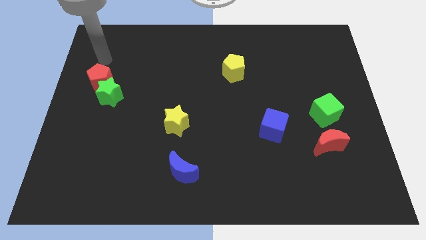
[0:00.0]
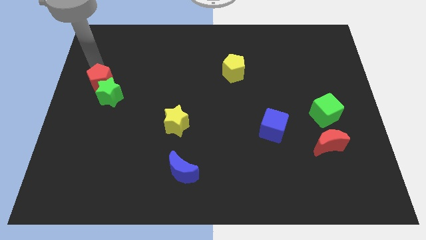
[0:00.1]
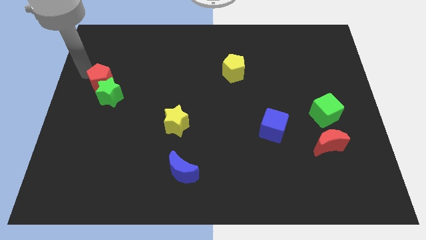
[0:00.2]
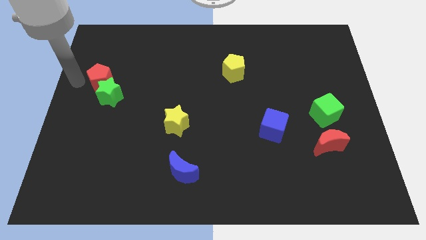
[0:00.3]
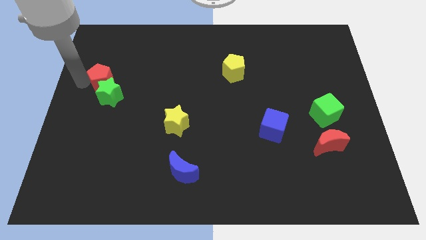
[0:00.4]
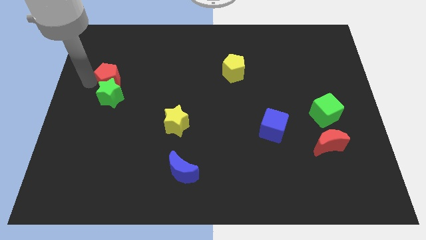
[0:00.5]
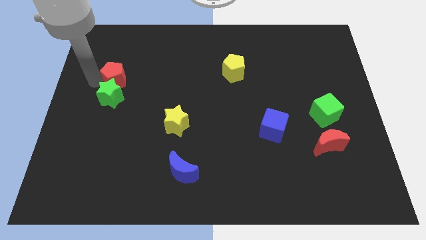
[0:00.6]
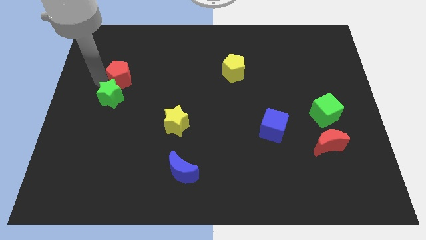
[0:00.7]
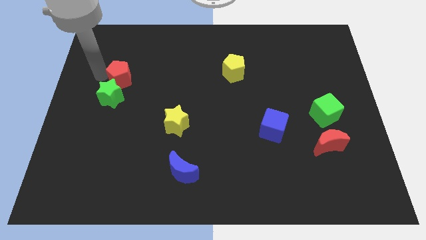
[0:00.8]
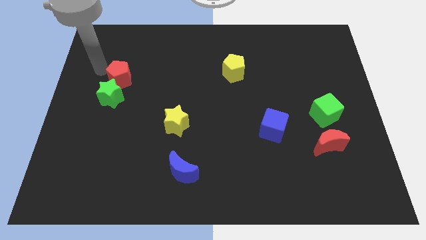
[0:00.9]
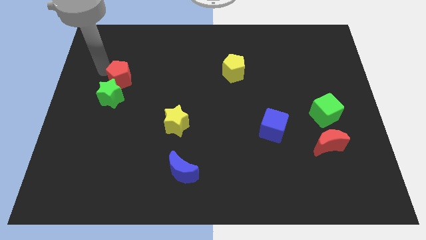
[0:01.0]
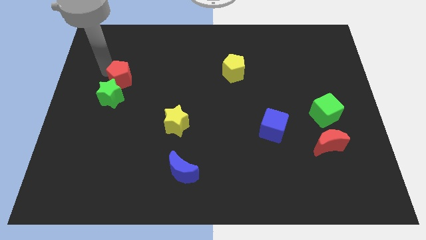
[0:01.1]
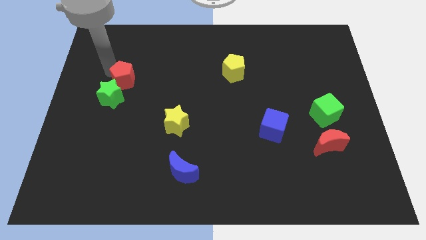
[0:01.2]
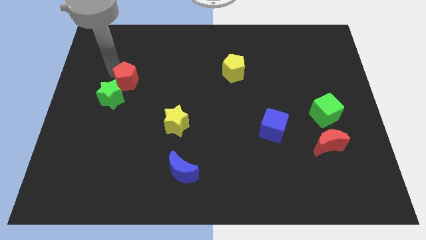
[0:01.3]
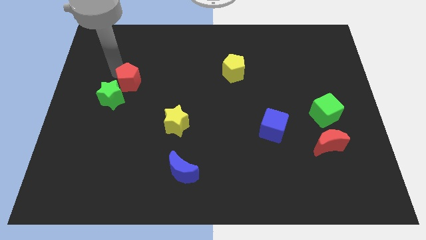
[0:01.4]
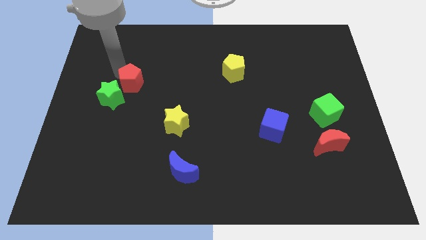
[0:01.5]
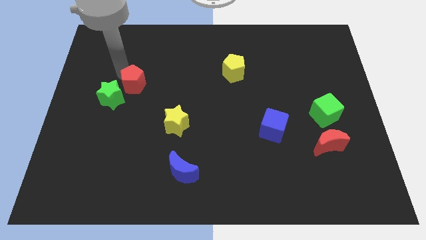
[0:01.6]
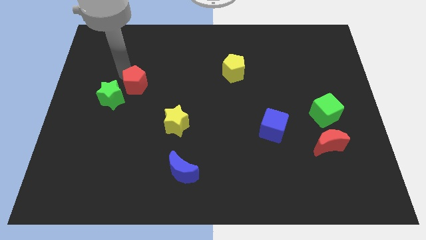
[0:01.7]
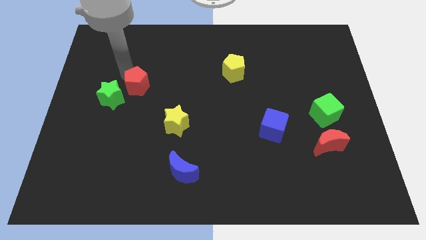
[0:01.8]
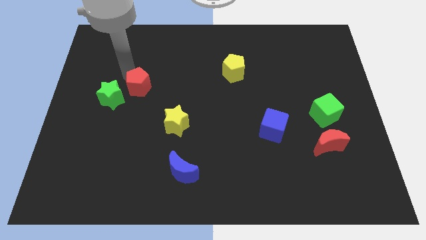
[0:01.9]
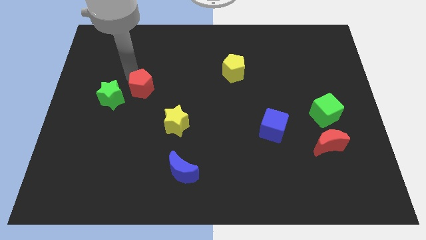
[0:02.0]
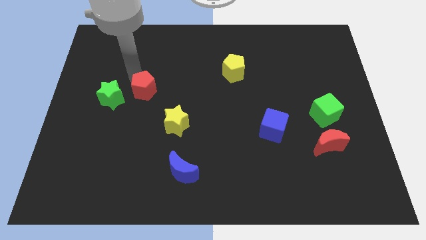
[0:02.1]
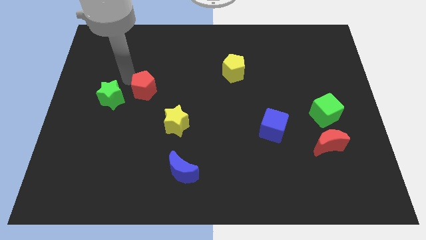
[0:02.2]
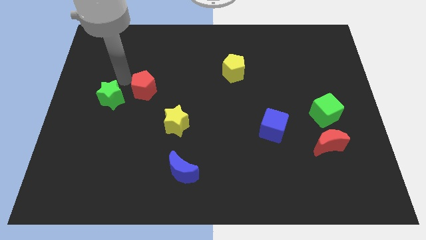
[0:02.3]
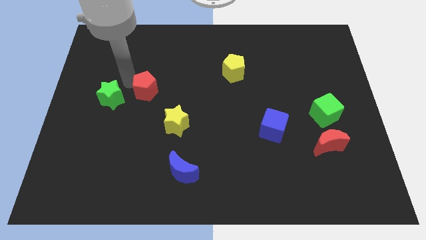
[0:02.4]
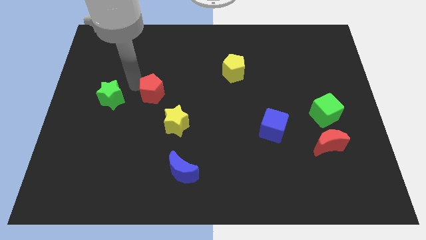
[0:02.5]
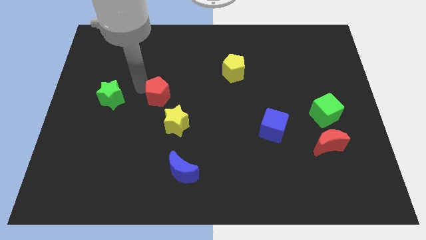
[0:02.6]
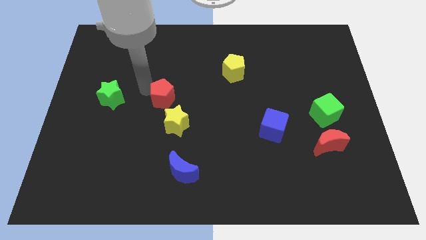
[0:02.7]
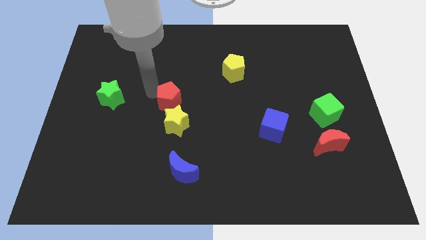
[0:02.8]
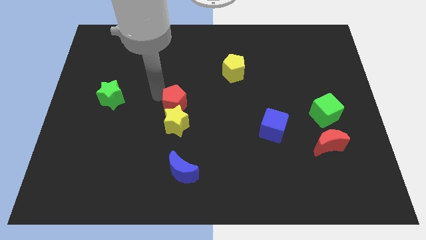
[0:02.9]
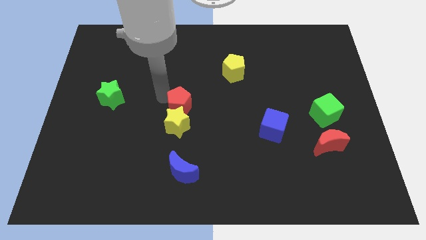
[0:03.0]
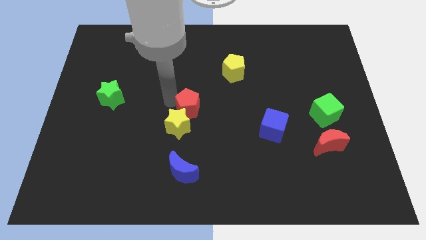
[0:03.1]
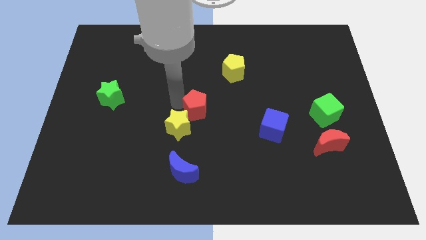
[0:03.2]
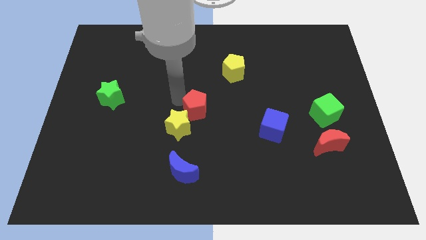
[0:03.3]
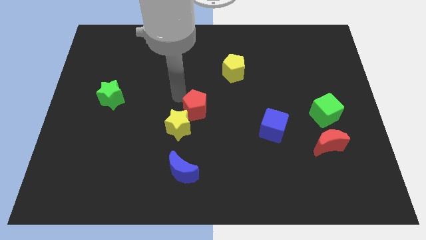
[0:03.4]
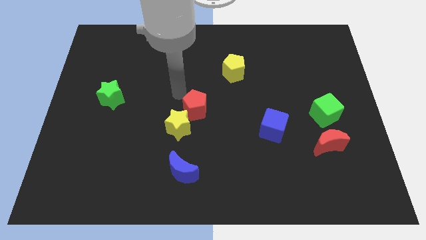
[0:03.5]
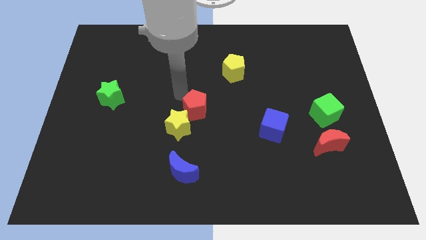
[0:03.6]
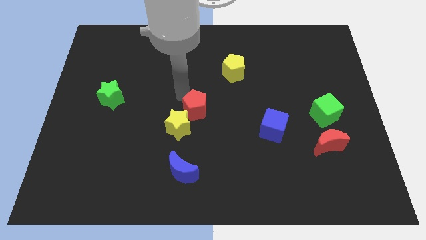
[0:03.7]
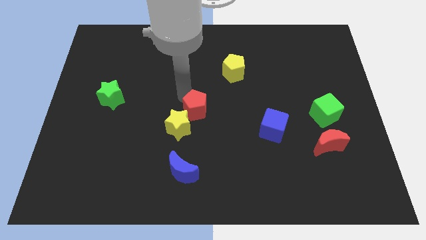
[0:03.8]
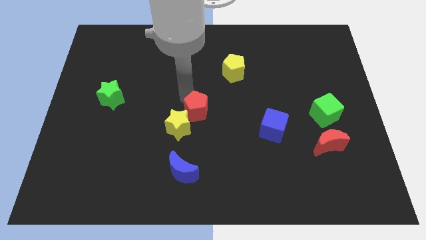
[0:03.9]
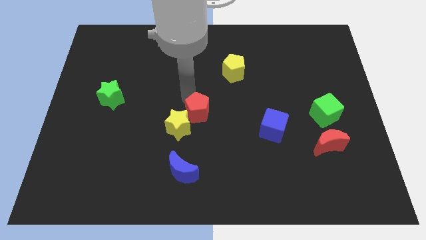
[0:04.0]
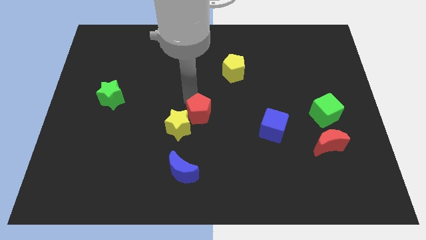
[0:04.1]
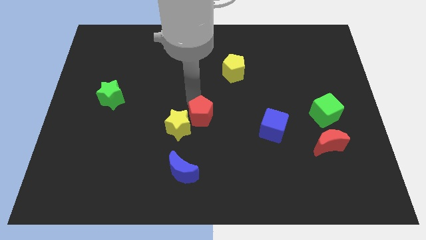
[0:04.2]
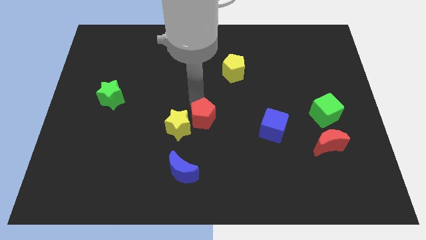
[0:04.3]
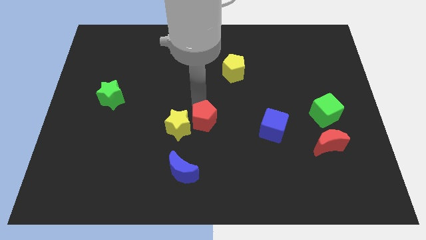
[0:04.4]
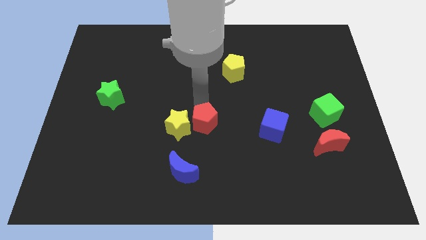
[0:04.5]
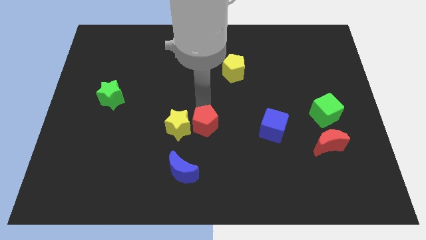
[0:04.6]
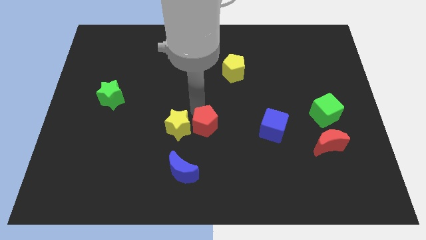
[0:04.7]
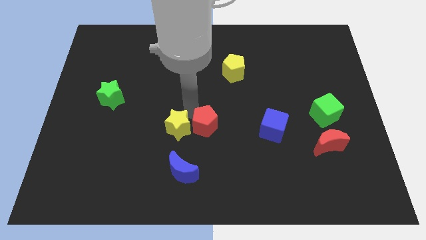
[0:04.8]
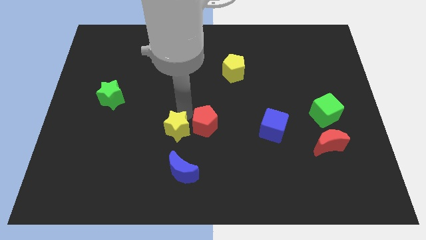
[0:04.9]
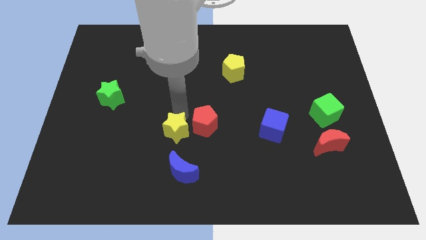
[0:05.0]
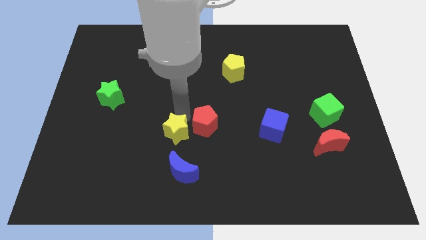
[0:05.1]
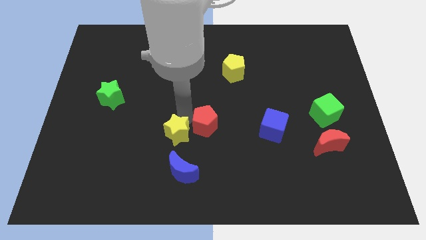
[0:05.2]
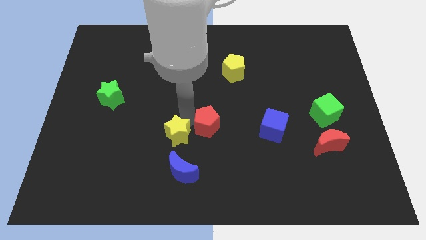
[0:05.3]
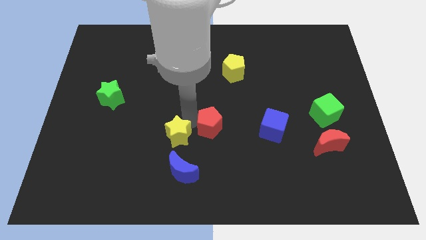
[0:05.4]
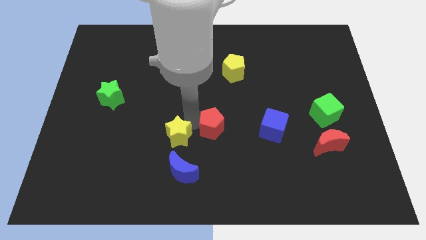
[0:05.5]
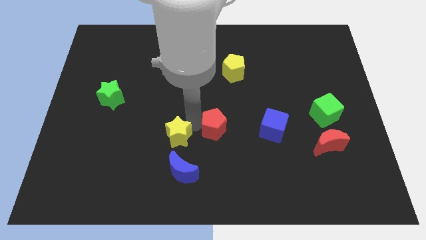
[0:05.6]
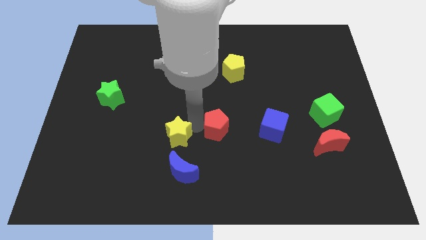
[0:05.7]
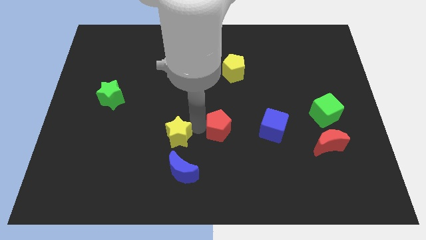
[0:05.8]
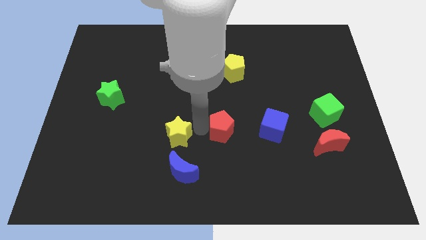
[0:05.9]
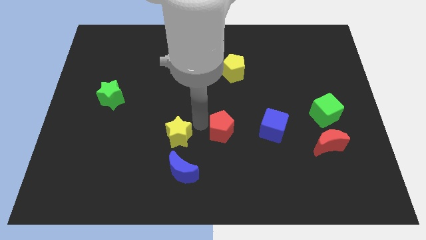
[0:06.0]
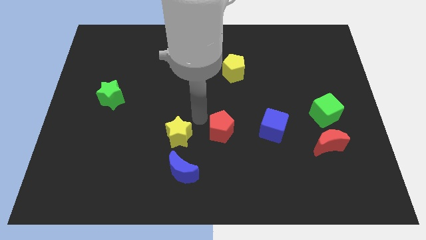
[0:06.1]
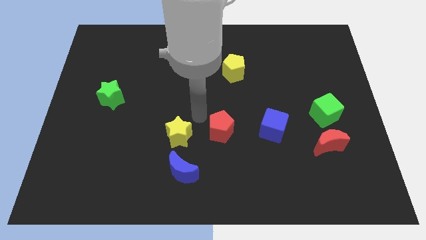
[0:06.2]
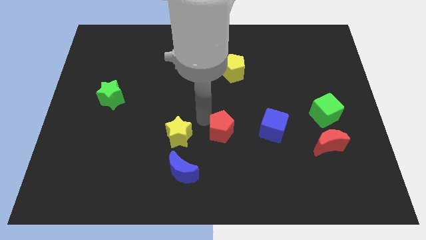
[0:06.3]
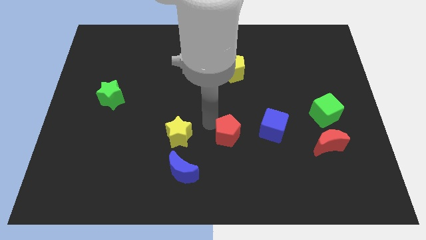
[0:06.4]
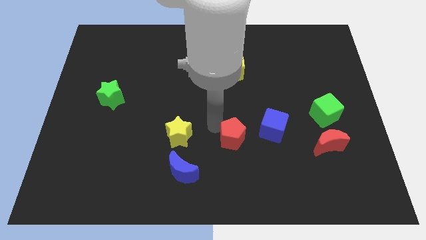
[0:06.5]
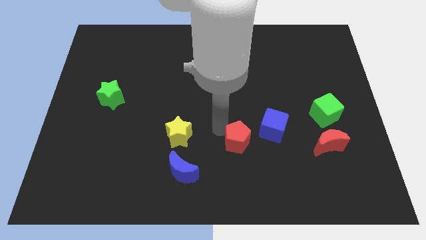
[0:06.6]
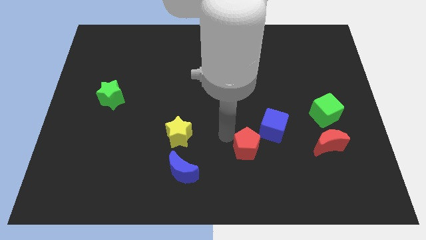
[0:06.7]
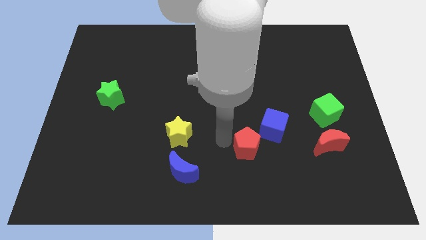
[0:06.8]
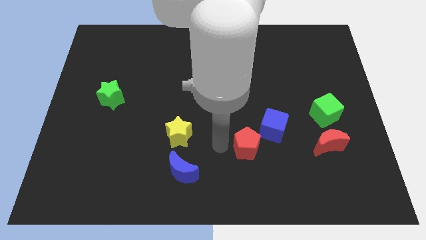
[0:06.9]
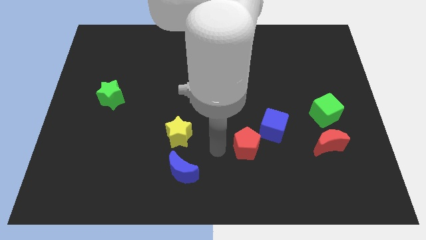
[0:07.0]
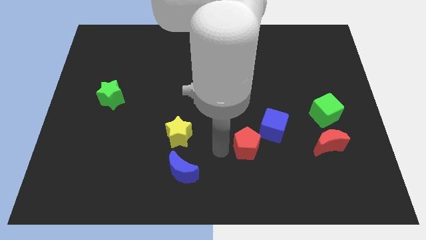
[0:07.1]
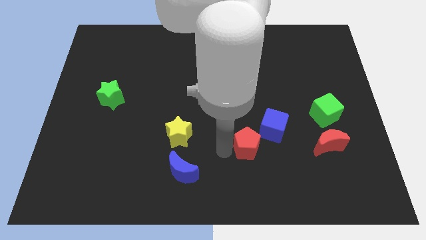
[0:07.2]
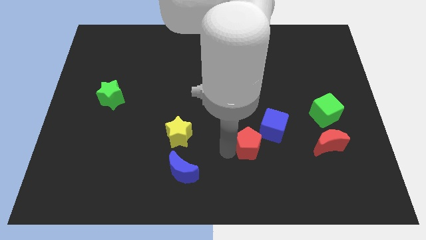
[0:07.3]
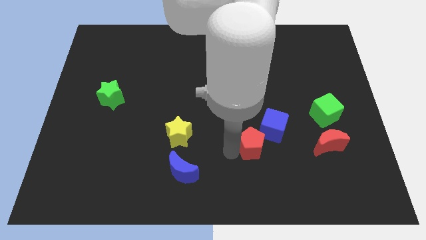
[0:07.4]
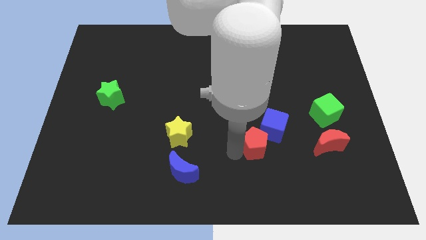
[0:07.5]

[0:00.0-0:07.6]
move the red pentagon to the left of the red moon
